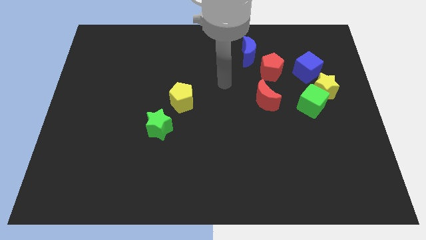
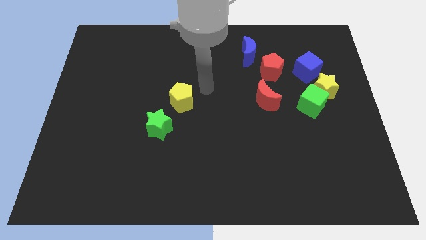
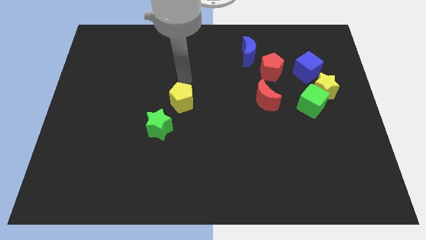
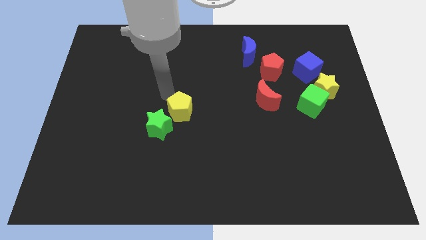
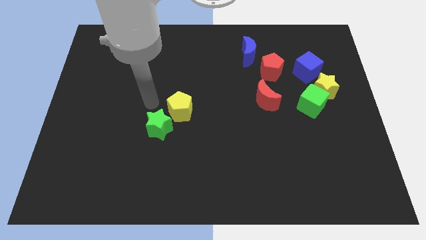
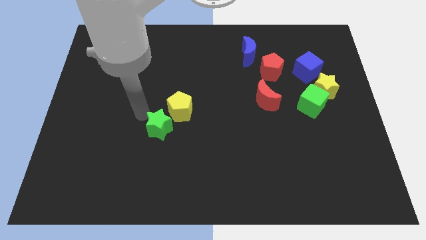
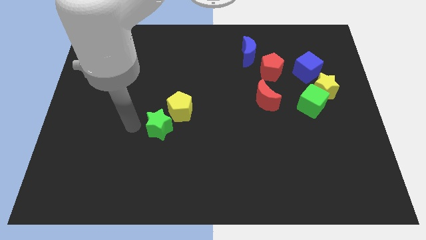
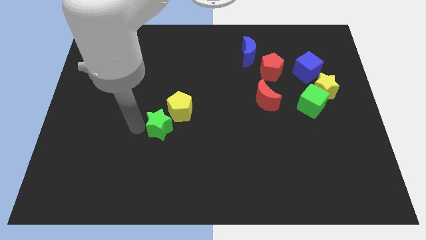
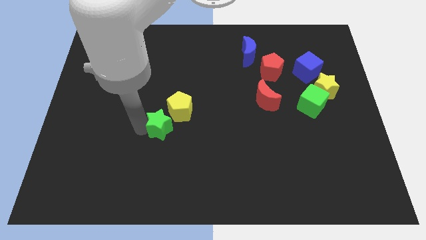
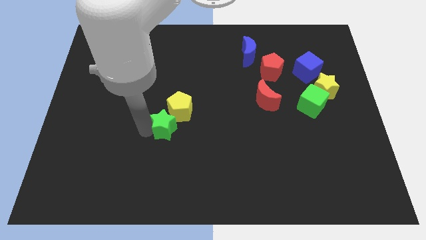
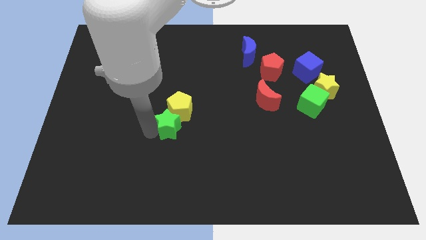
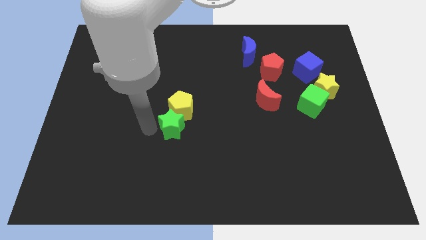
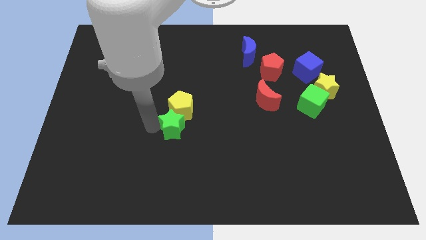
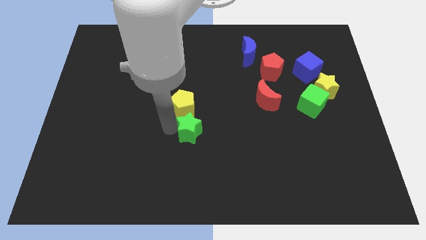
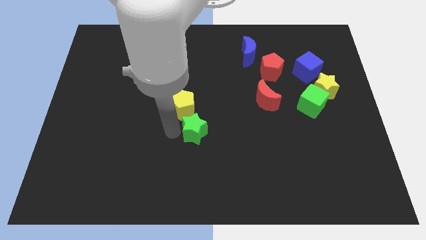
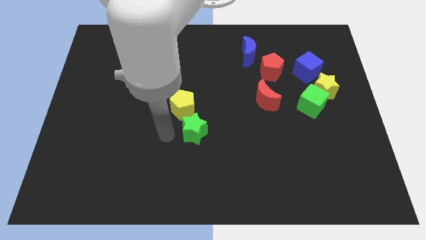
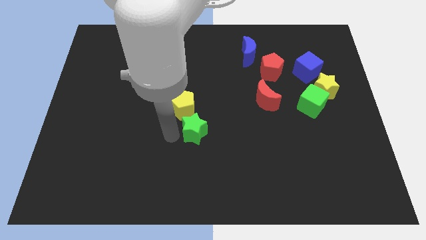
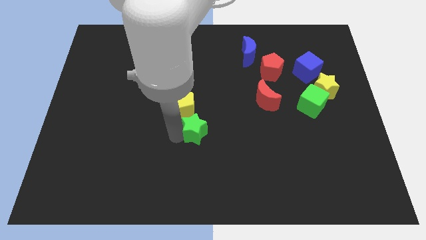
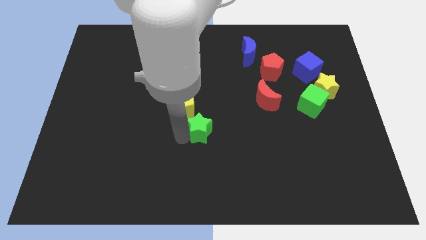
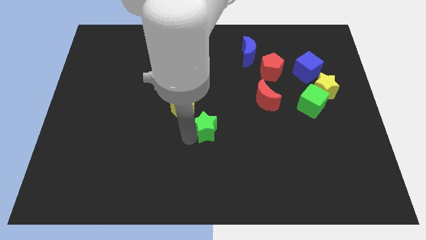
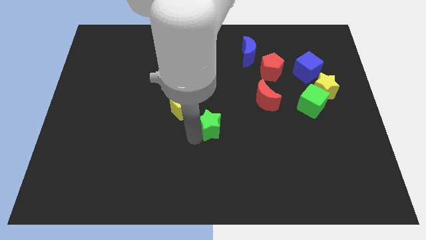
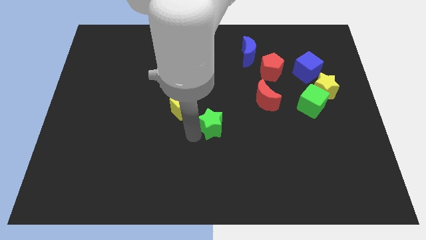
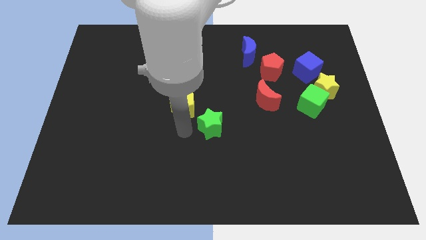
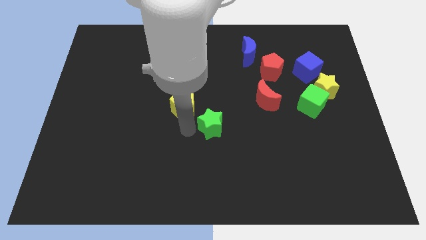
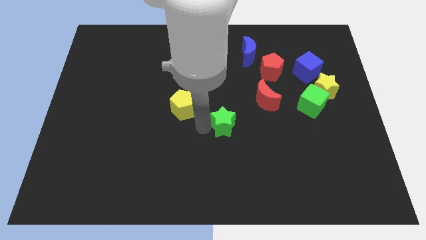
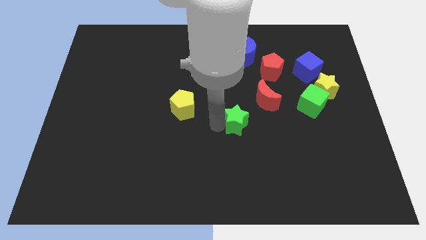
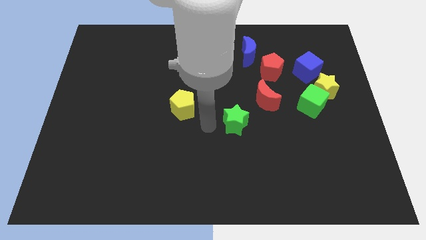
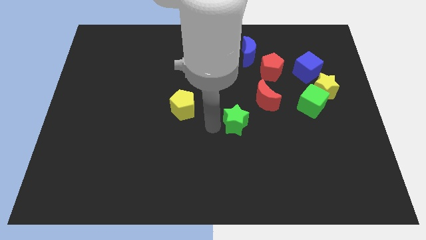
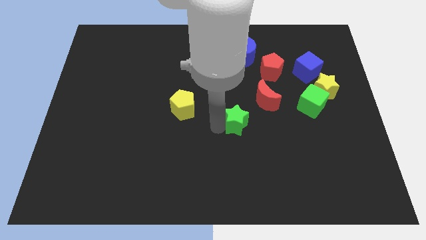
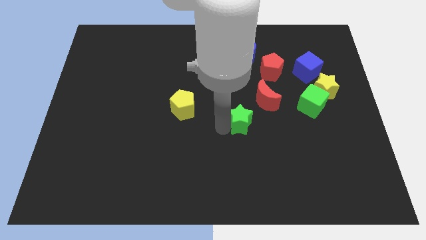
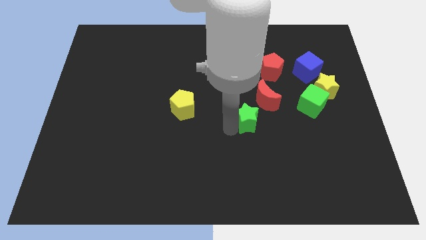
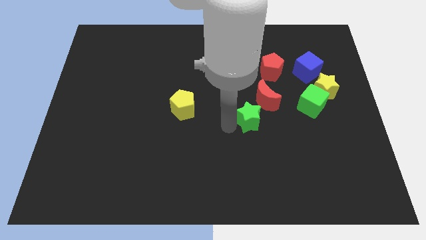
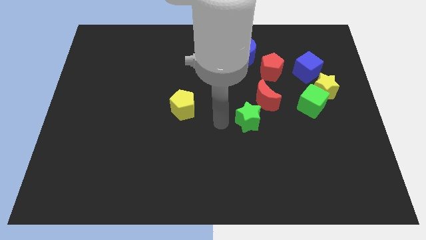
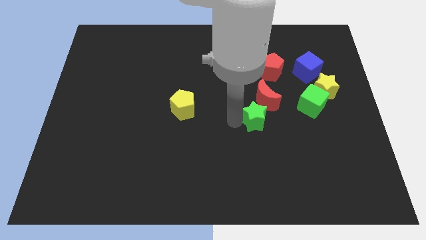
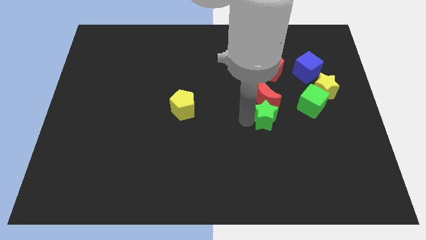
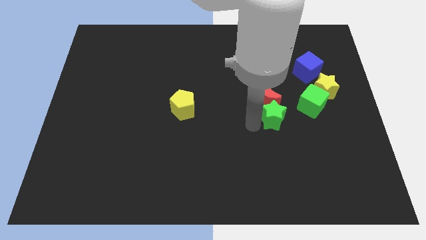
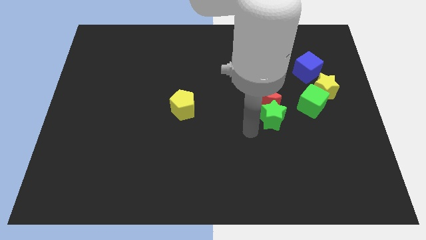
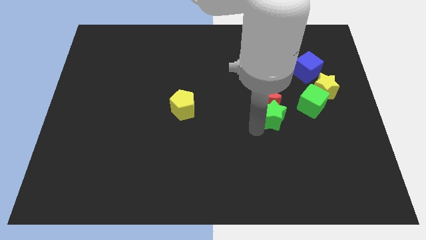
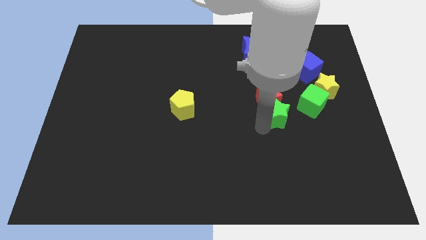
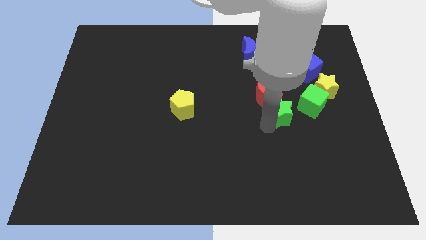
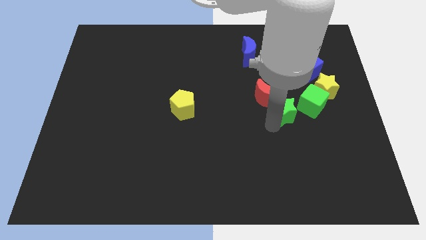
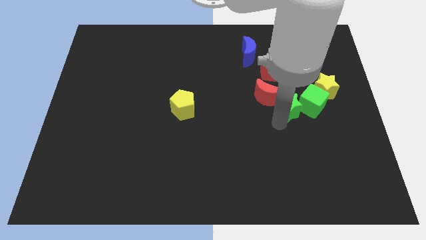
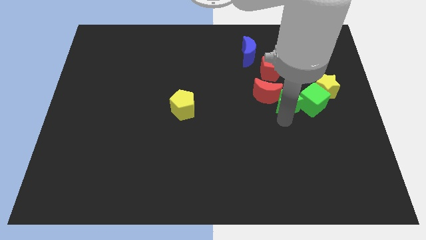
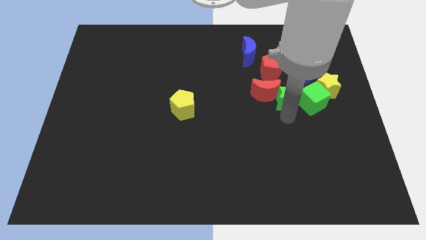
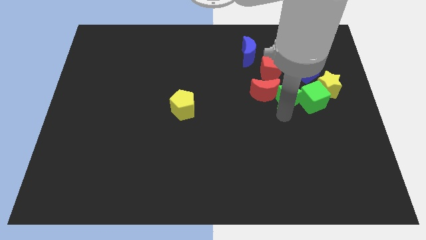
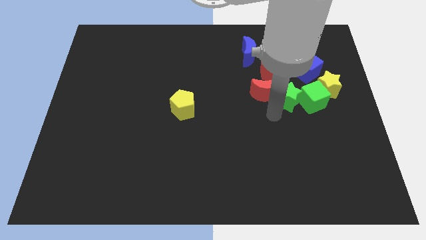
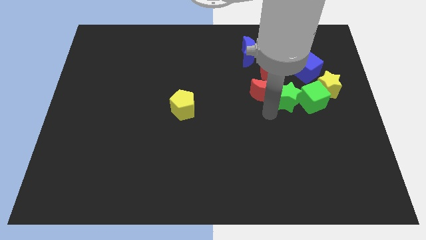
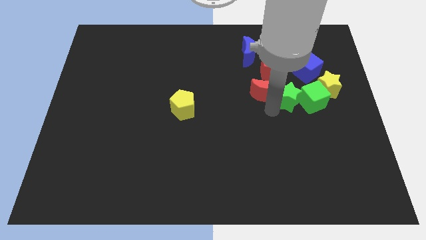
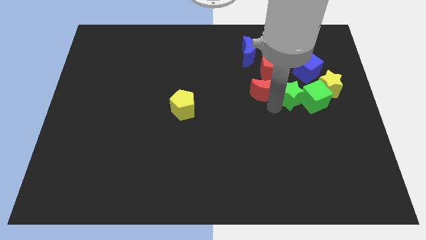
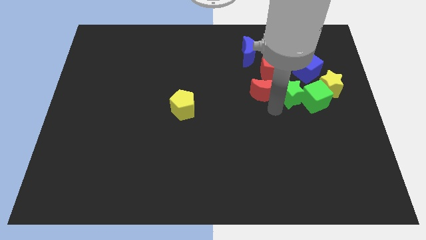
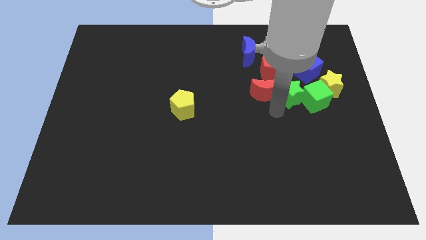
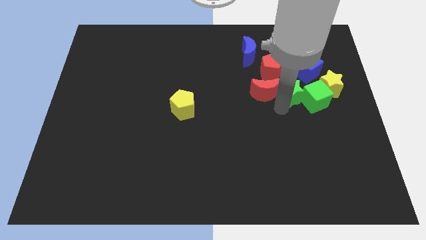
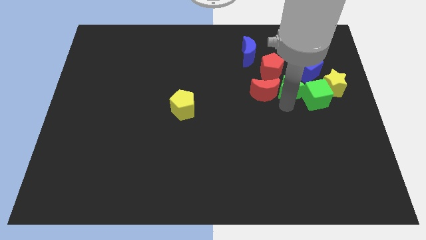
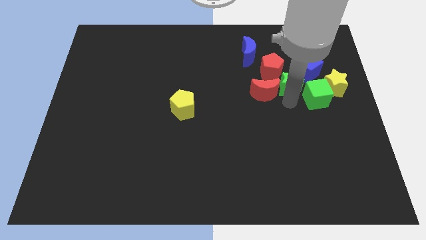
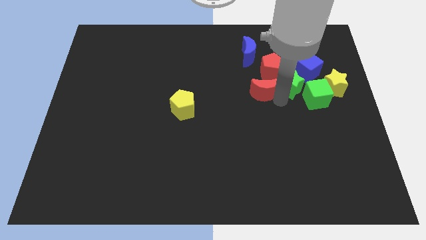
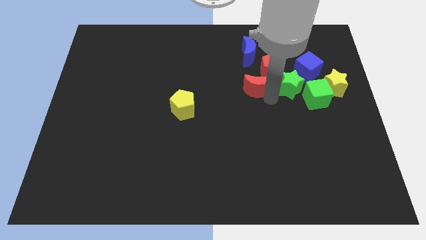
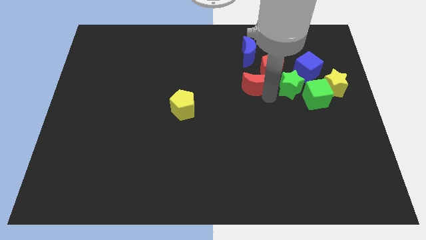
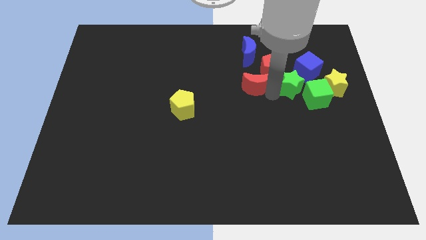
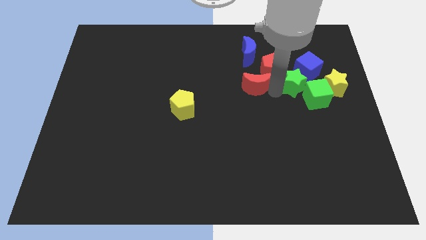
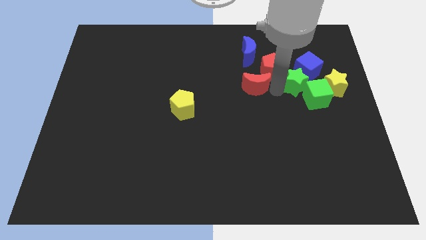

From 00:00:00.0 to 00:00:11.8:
slide the green star next to the blue cube

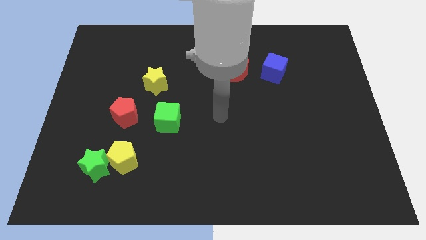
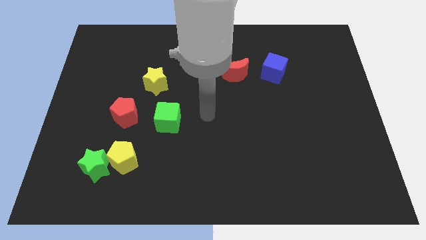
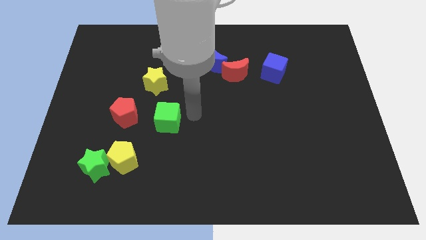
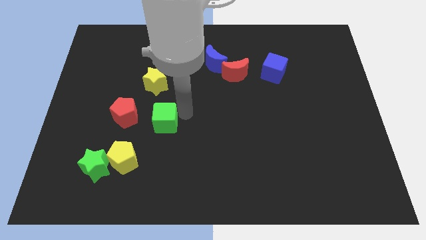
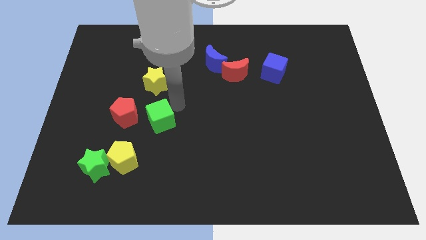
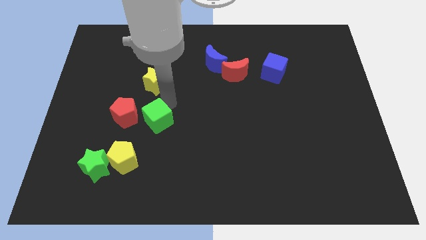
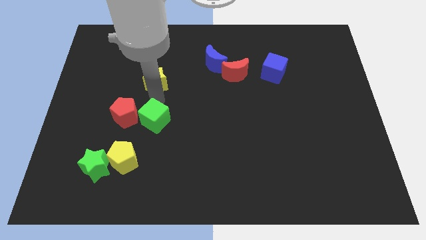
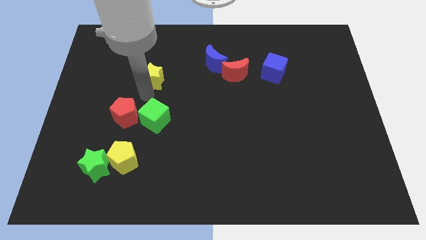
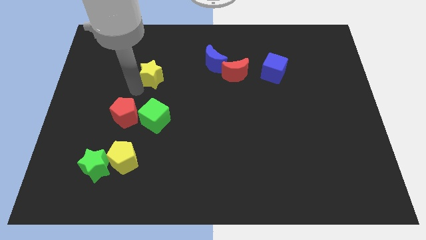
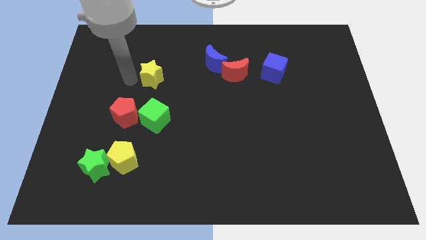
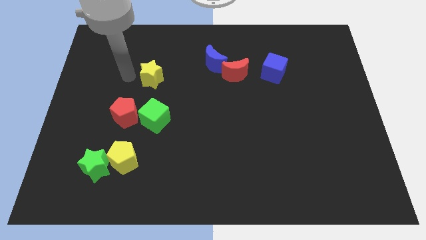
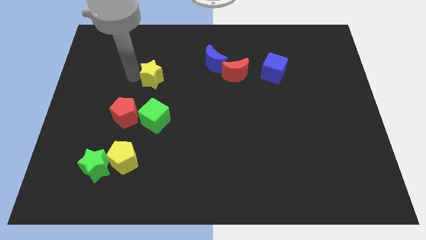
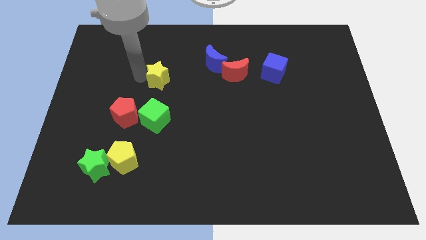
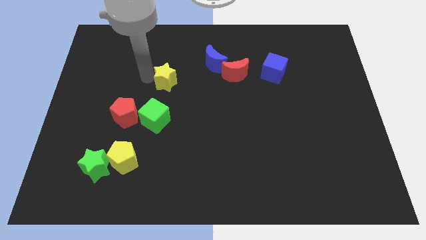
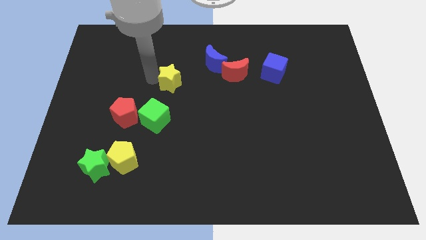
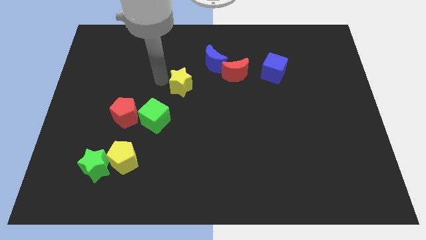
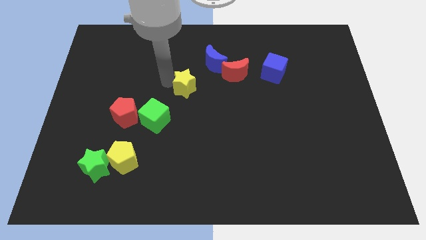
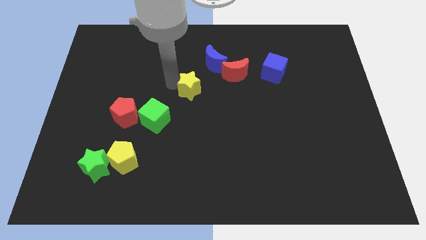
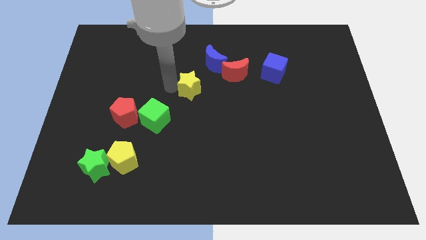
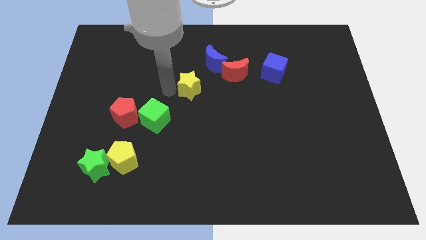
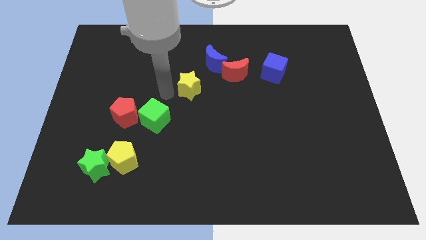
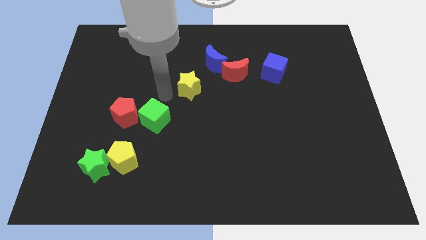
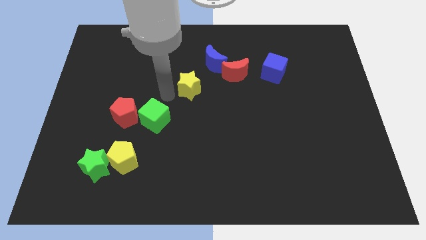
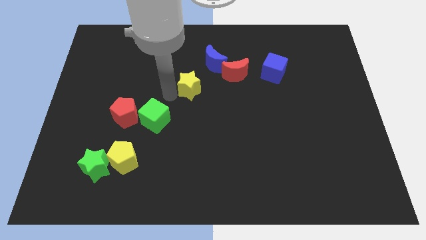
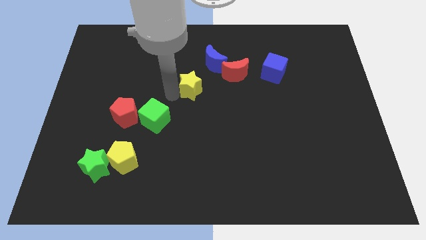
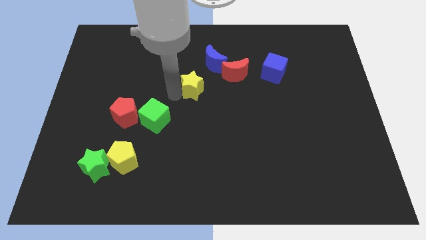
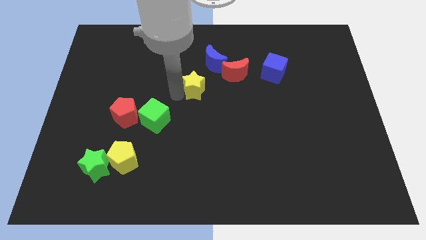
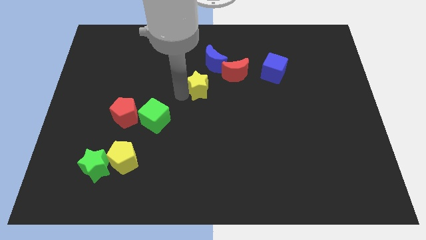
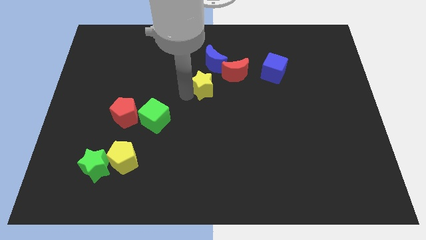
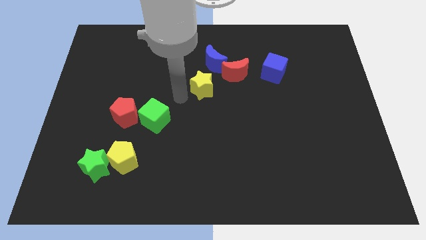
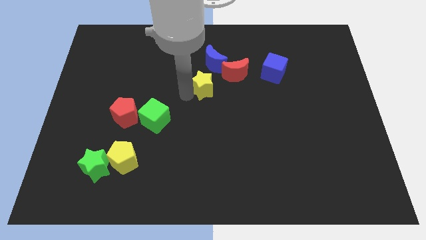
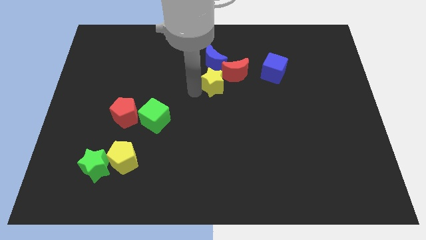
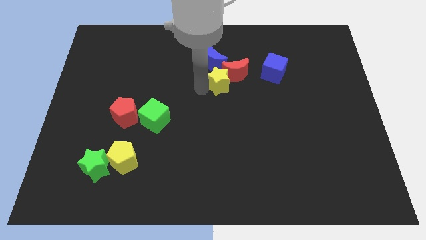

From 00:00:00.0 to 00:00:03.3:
slide the yellow star towards the red moon
